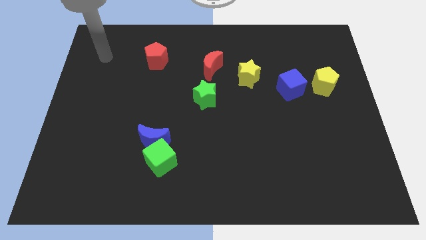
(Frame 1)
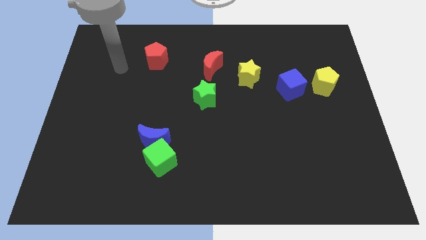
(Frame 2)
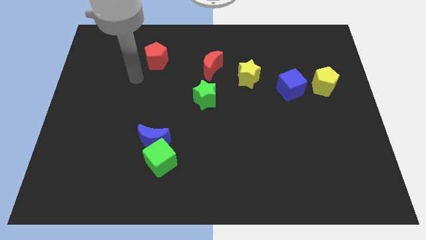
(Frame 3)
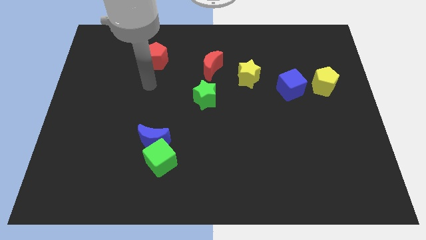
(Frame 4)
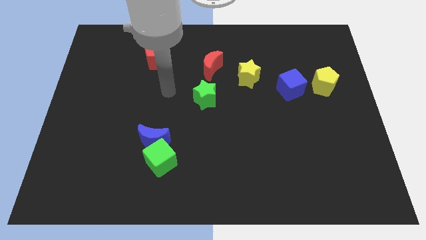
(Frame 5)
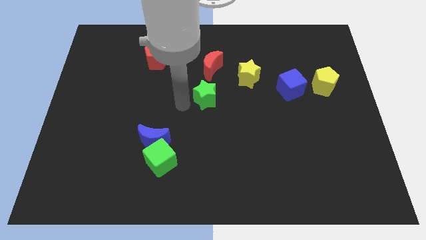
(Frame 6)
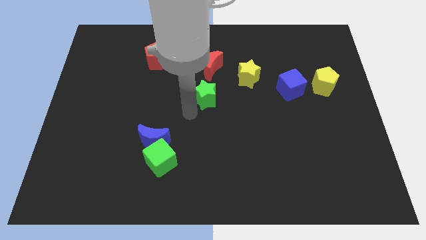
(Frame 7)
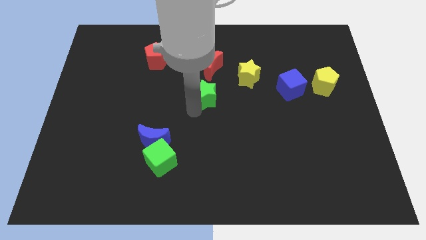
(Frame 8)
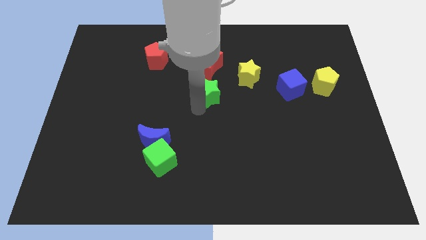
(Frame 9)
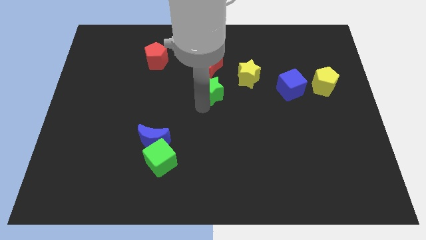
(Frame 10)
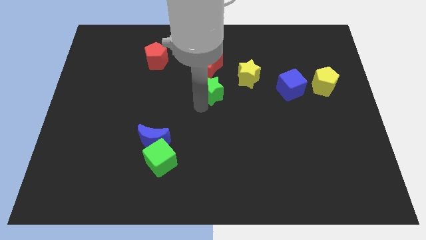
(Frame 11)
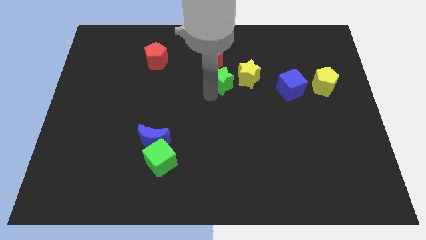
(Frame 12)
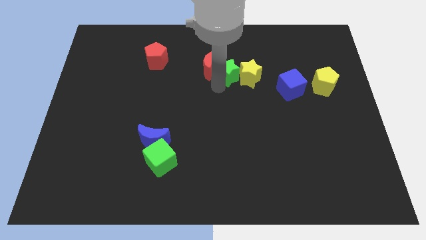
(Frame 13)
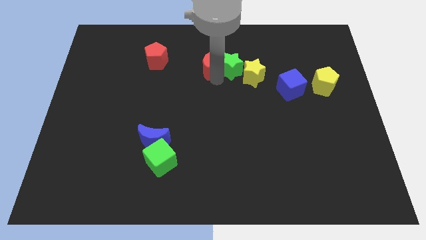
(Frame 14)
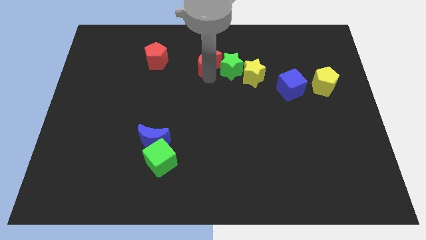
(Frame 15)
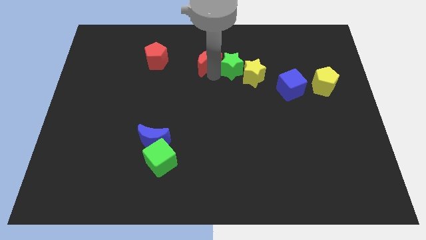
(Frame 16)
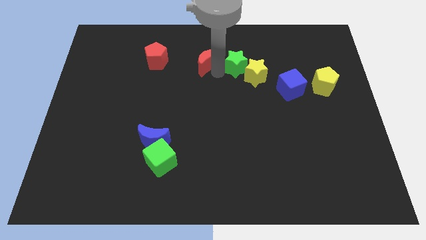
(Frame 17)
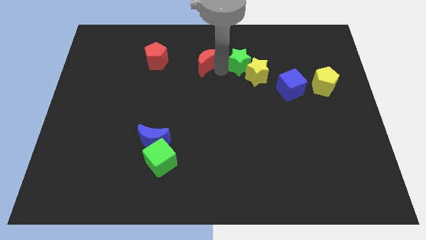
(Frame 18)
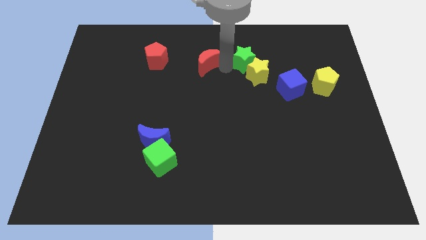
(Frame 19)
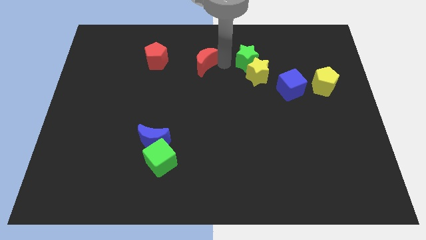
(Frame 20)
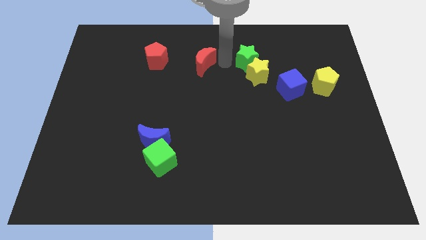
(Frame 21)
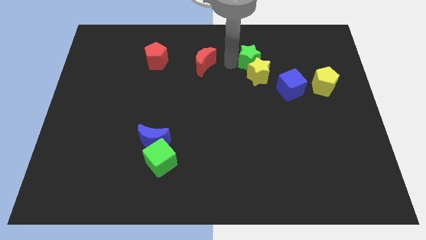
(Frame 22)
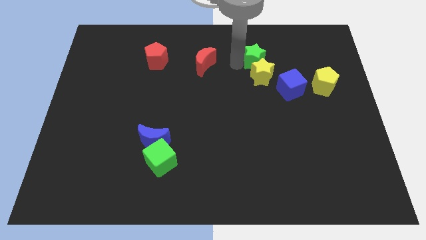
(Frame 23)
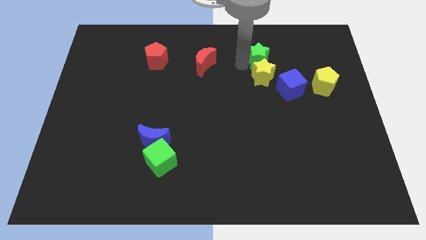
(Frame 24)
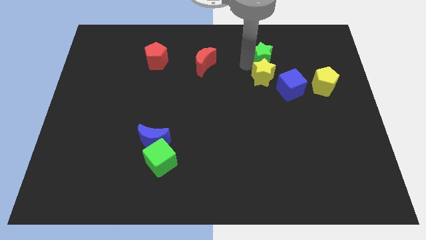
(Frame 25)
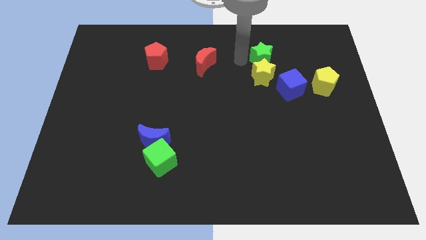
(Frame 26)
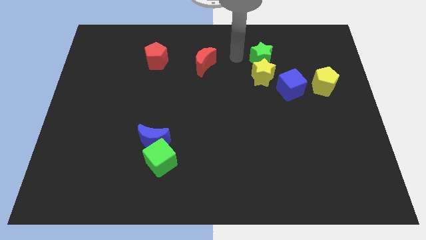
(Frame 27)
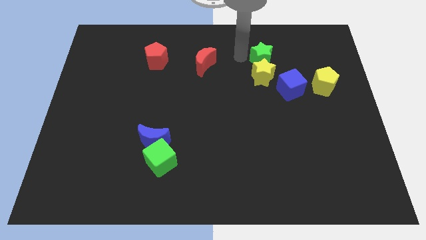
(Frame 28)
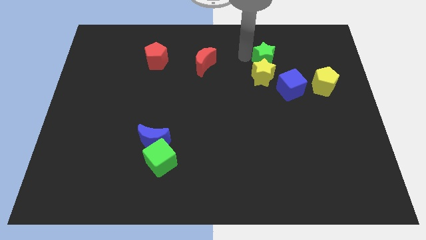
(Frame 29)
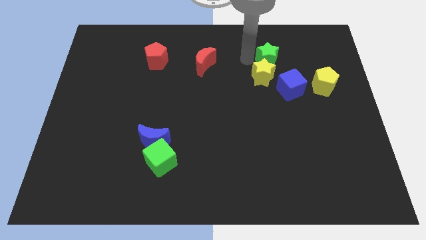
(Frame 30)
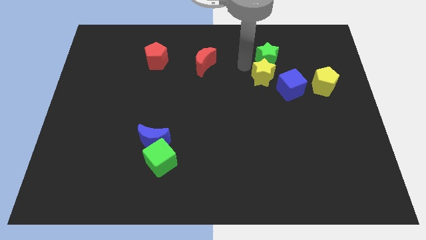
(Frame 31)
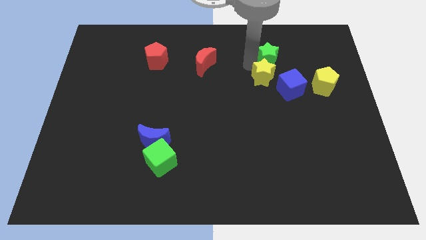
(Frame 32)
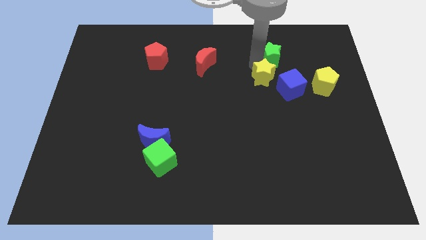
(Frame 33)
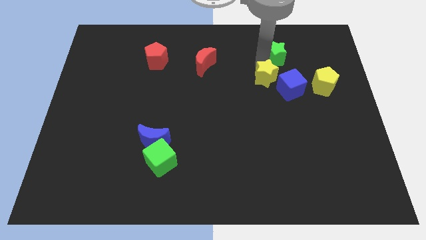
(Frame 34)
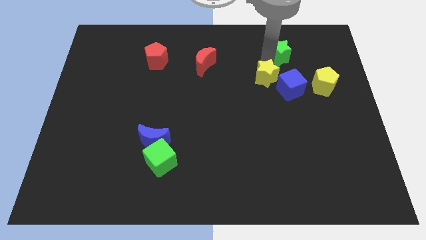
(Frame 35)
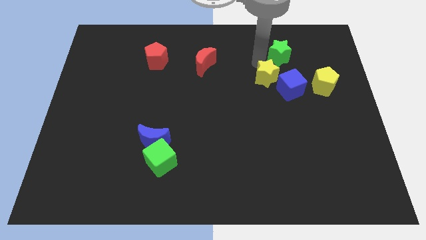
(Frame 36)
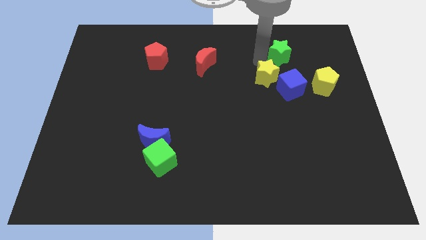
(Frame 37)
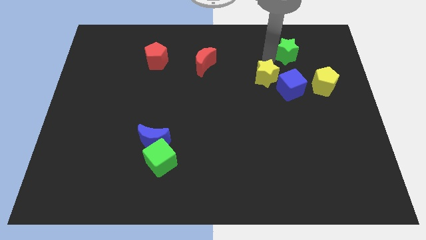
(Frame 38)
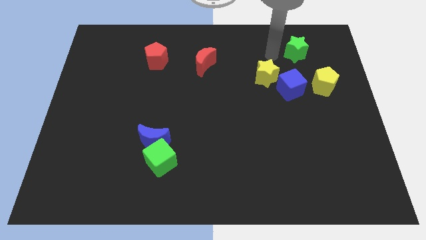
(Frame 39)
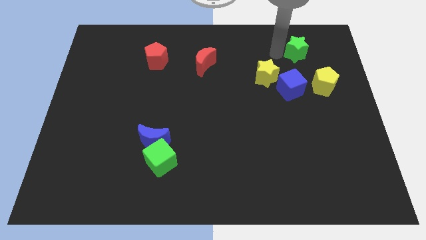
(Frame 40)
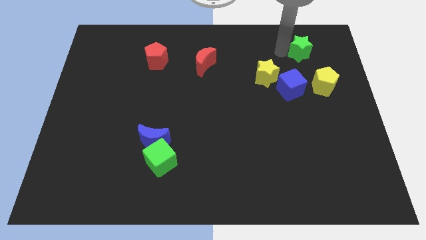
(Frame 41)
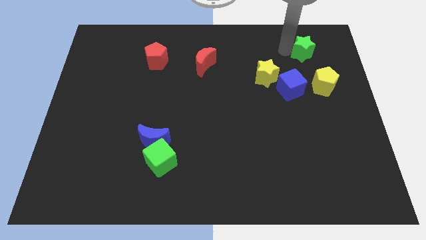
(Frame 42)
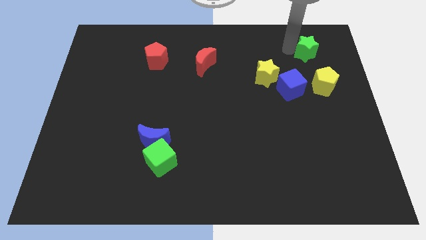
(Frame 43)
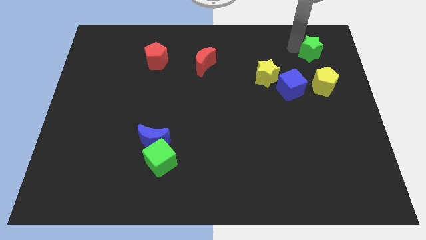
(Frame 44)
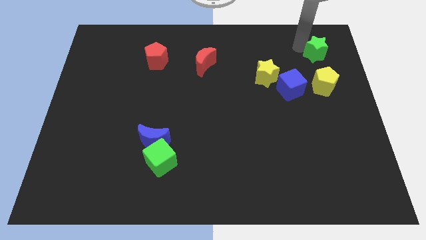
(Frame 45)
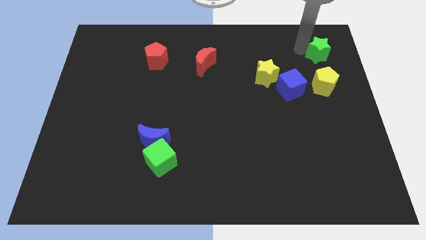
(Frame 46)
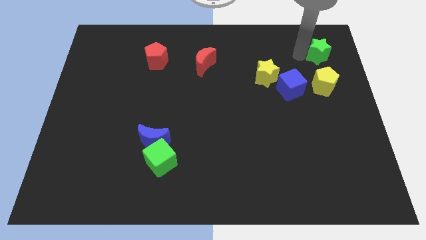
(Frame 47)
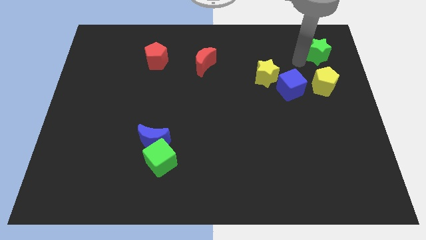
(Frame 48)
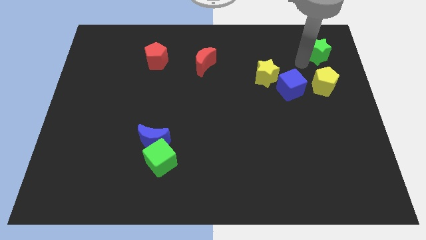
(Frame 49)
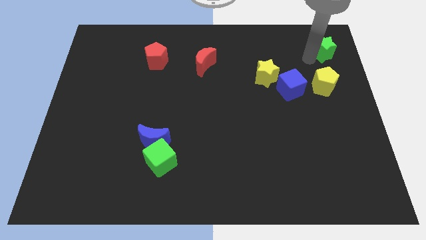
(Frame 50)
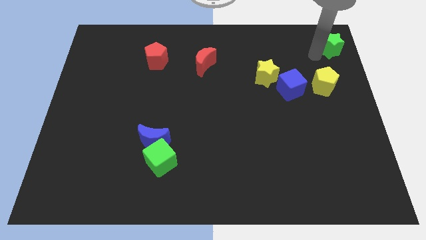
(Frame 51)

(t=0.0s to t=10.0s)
put the green star to the top right

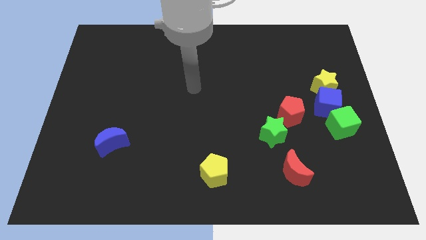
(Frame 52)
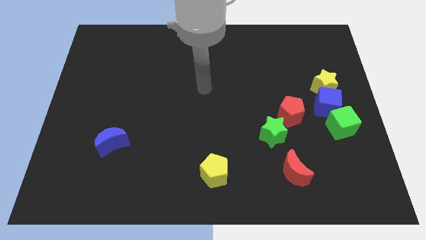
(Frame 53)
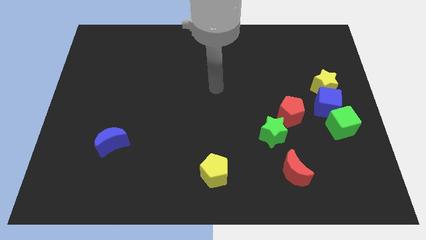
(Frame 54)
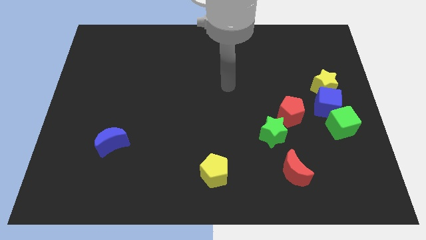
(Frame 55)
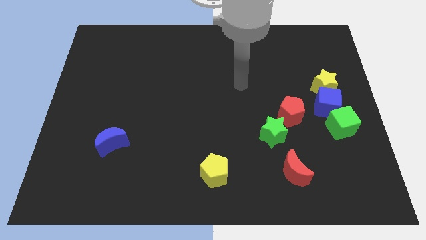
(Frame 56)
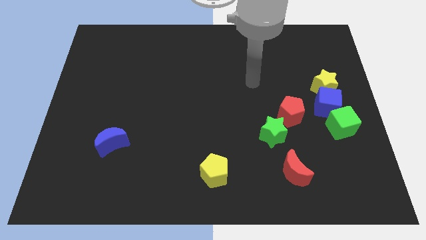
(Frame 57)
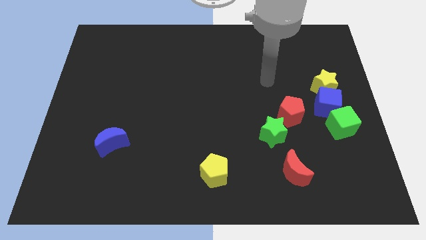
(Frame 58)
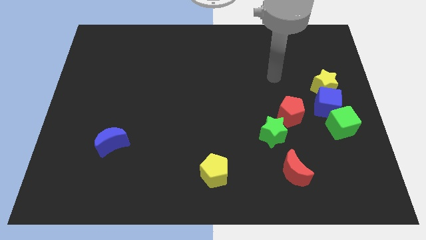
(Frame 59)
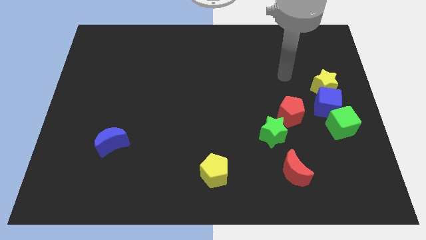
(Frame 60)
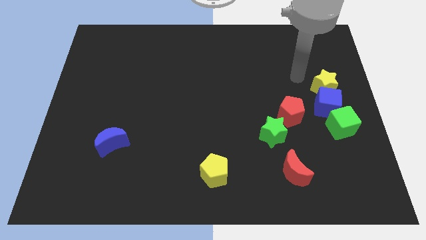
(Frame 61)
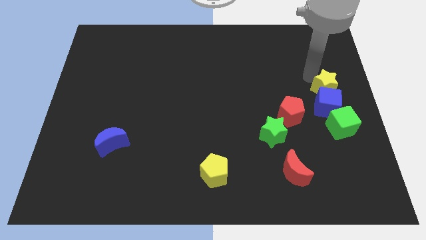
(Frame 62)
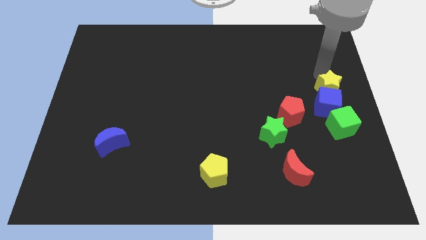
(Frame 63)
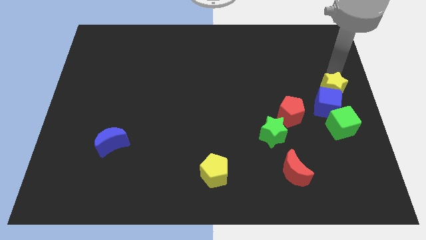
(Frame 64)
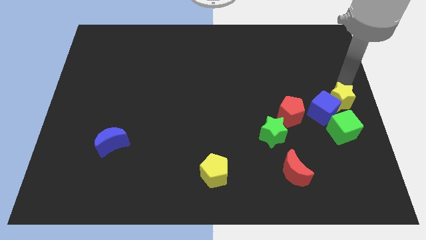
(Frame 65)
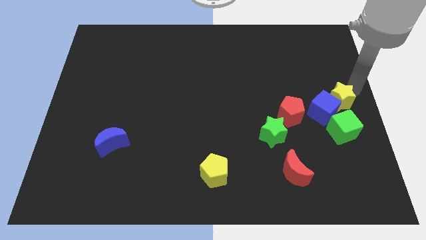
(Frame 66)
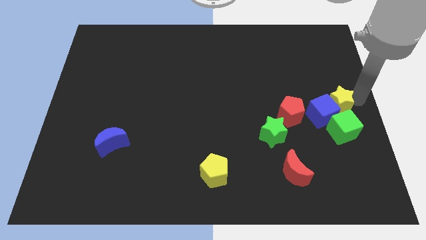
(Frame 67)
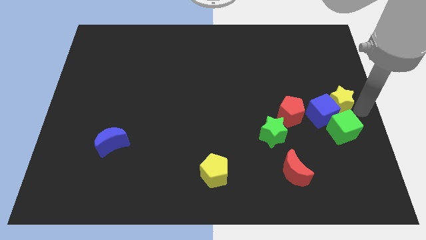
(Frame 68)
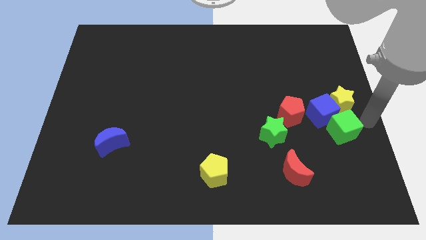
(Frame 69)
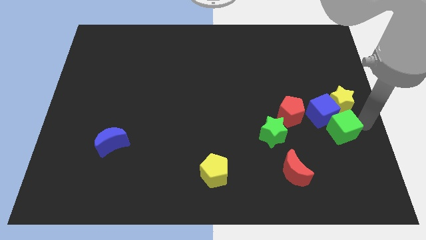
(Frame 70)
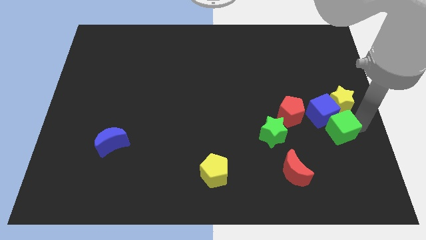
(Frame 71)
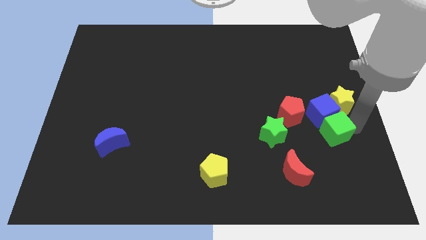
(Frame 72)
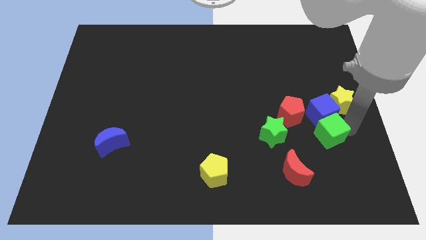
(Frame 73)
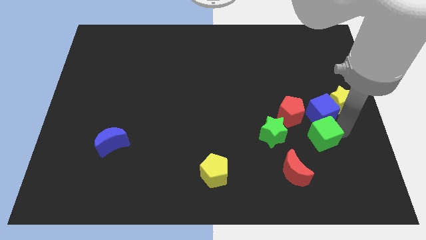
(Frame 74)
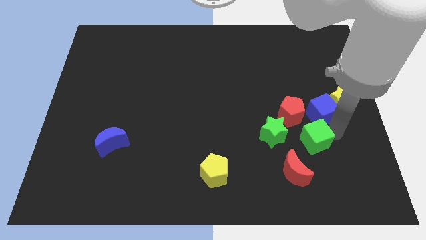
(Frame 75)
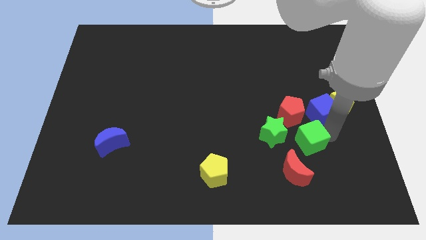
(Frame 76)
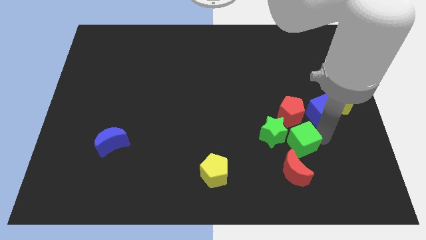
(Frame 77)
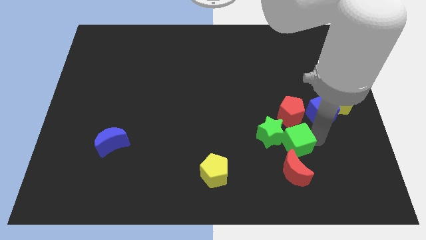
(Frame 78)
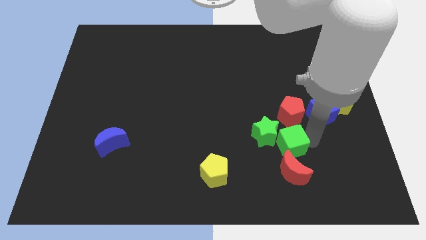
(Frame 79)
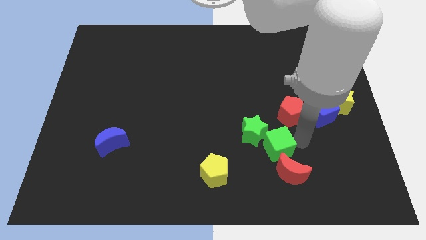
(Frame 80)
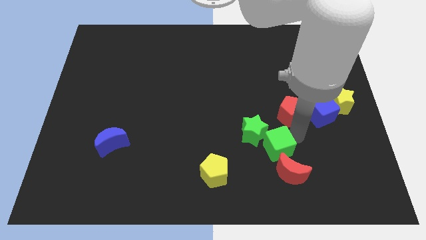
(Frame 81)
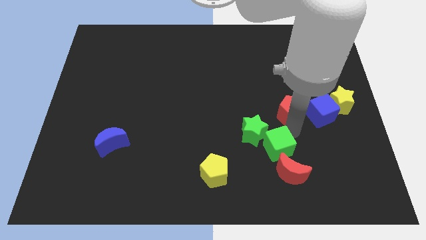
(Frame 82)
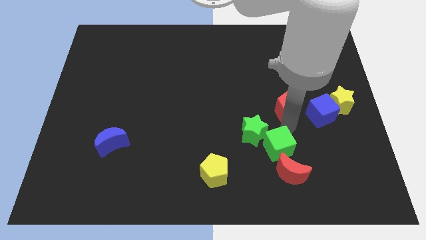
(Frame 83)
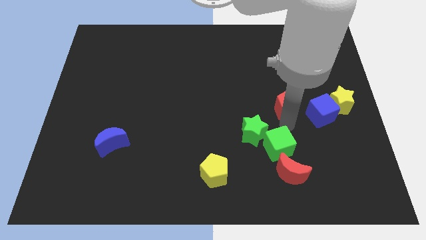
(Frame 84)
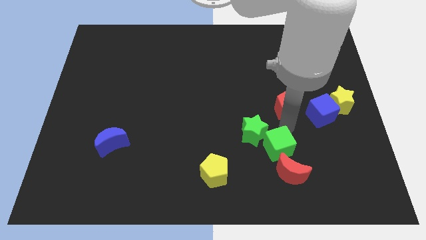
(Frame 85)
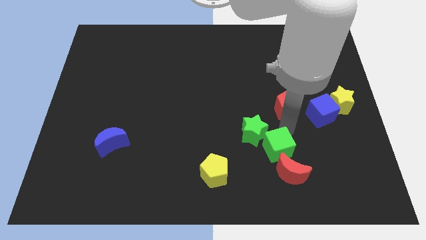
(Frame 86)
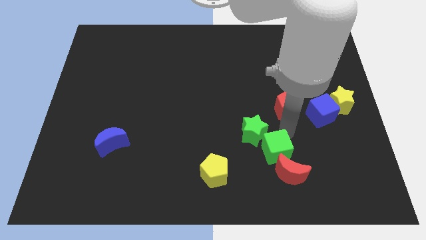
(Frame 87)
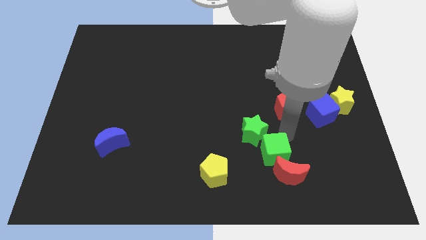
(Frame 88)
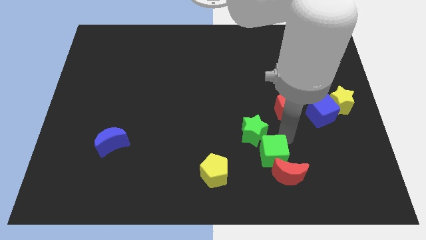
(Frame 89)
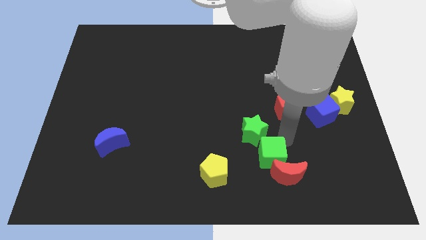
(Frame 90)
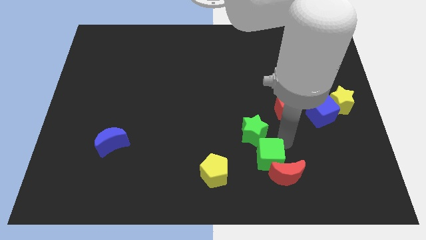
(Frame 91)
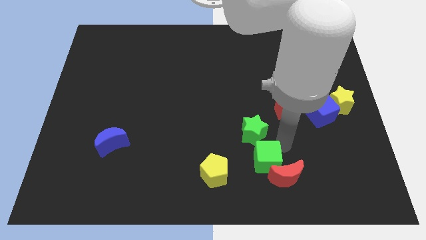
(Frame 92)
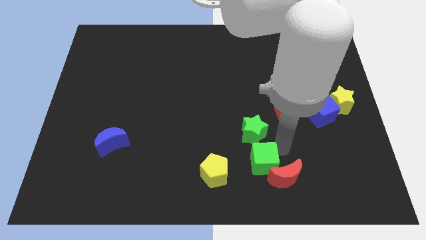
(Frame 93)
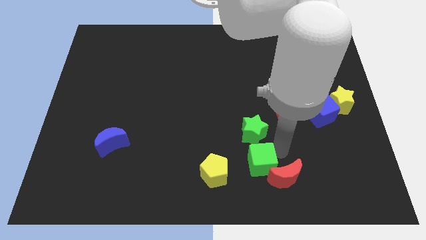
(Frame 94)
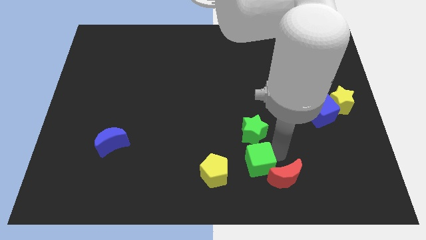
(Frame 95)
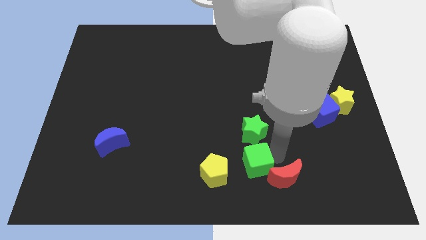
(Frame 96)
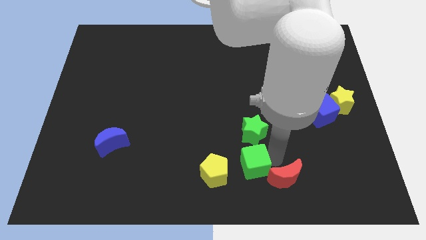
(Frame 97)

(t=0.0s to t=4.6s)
slide the green cube to the bottom
